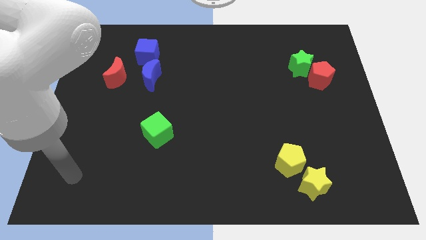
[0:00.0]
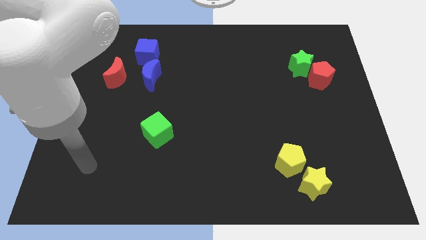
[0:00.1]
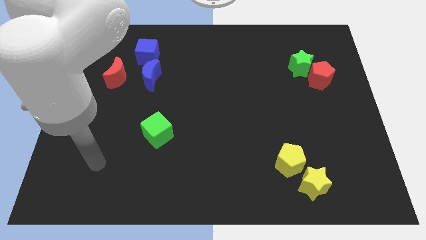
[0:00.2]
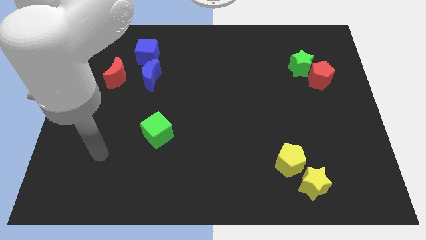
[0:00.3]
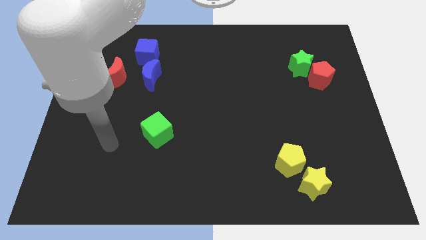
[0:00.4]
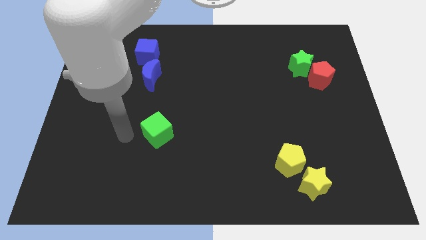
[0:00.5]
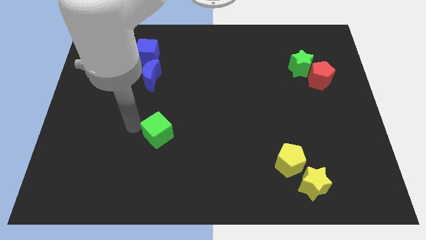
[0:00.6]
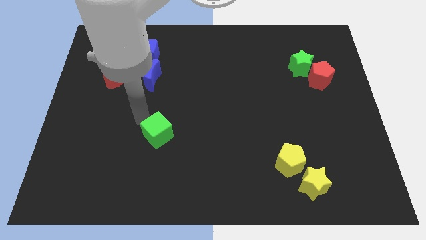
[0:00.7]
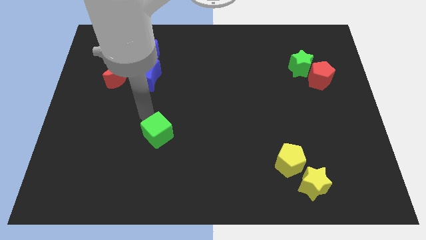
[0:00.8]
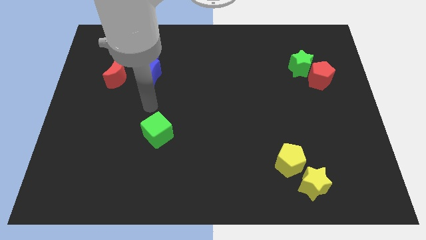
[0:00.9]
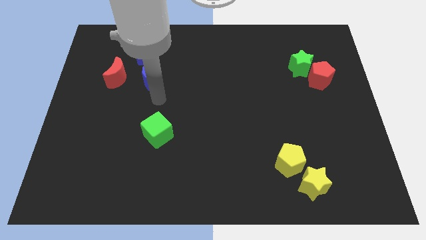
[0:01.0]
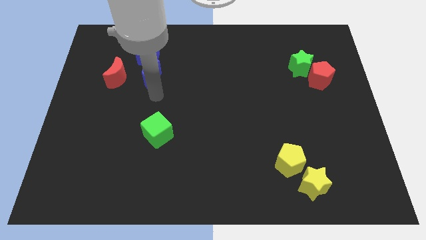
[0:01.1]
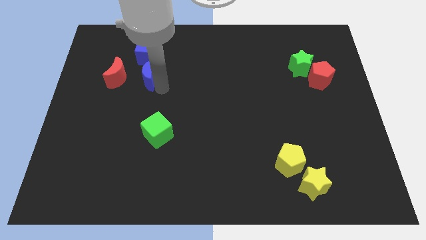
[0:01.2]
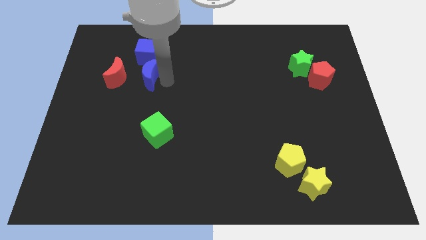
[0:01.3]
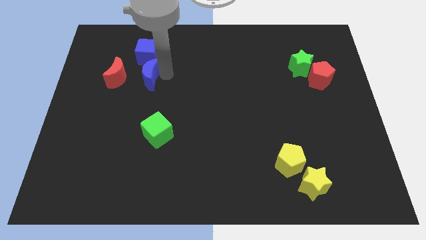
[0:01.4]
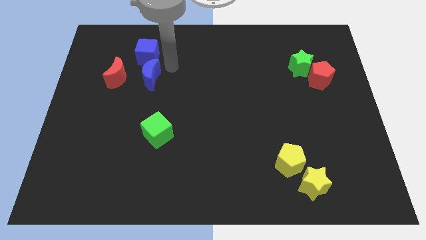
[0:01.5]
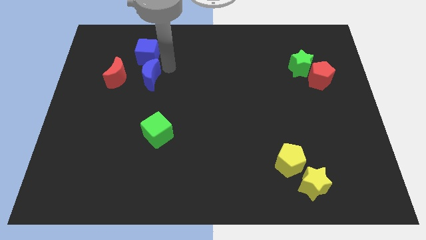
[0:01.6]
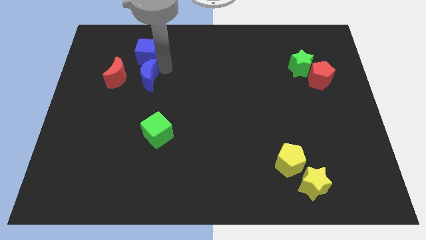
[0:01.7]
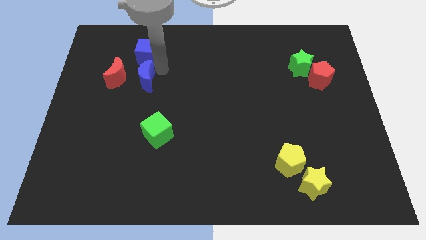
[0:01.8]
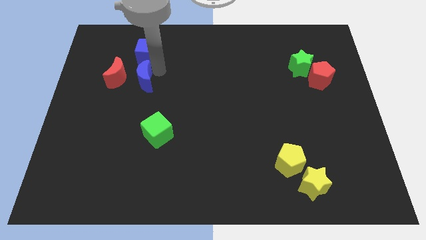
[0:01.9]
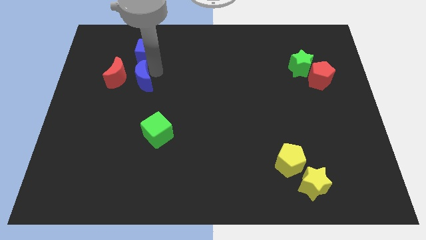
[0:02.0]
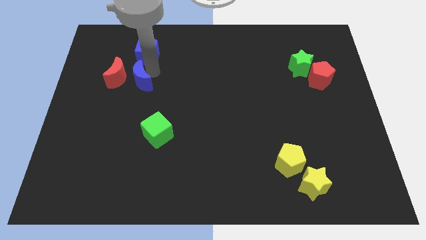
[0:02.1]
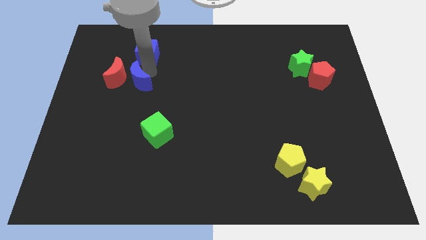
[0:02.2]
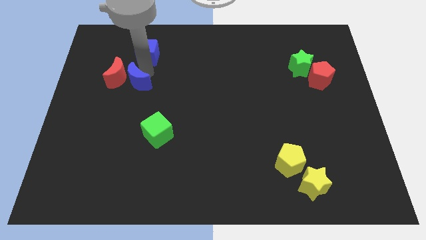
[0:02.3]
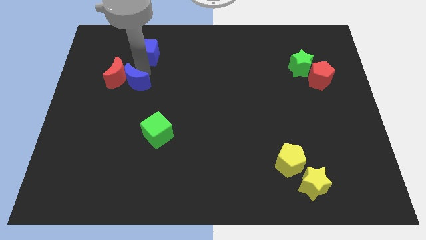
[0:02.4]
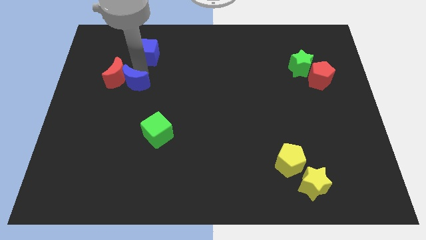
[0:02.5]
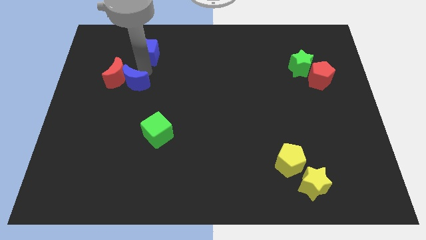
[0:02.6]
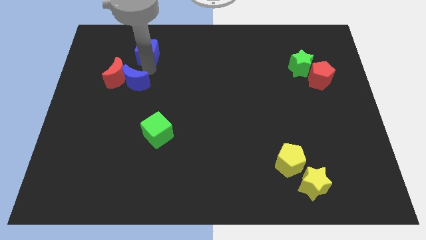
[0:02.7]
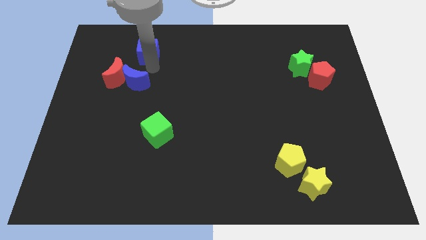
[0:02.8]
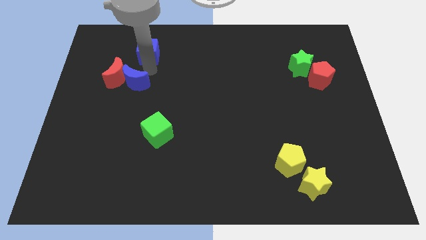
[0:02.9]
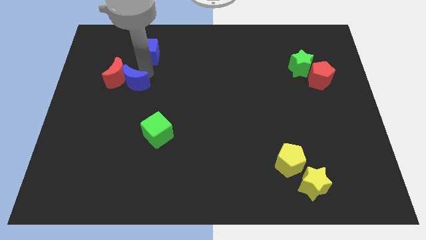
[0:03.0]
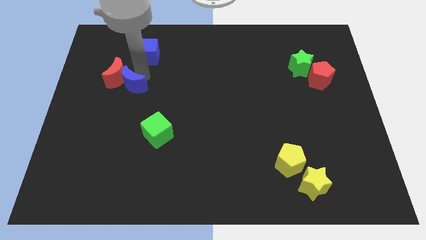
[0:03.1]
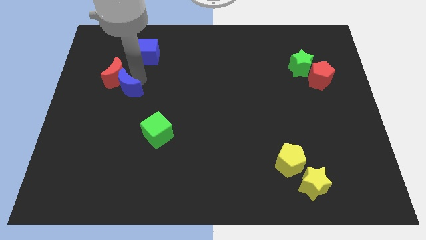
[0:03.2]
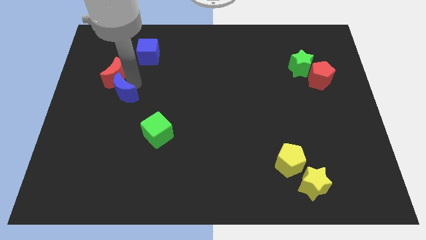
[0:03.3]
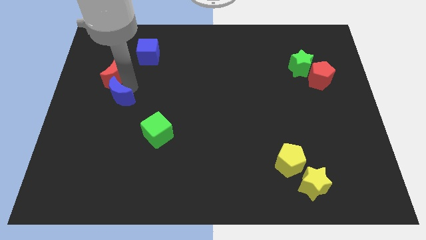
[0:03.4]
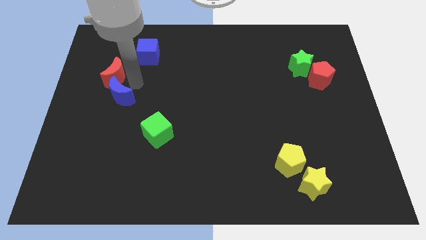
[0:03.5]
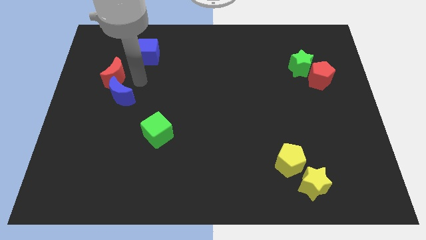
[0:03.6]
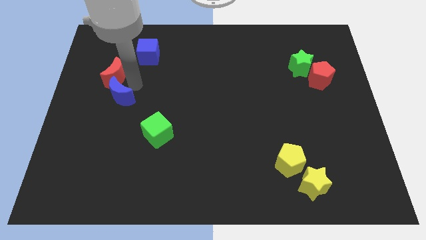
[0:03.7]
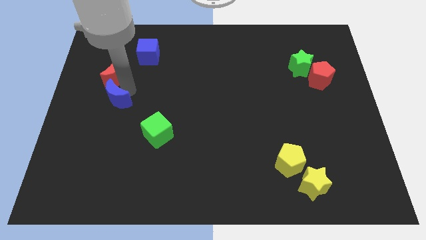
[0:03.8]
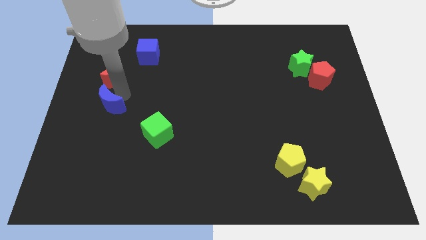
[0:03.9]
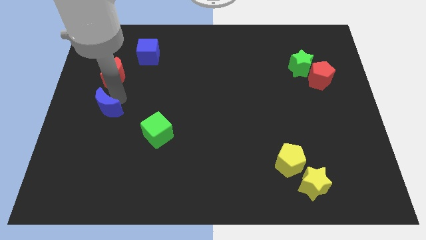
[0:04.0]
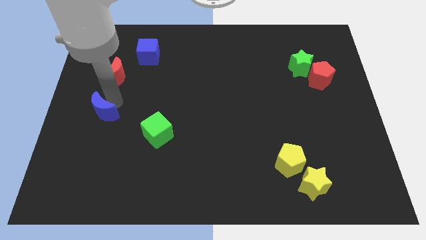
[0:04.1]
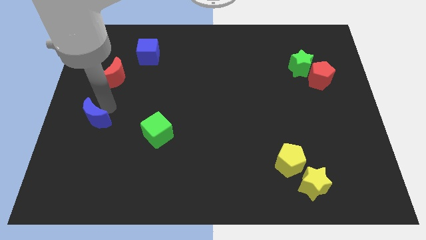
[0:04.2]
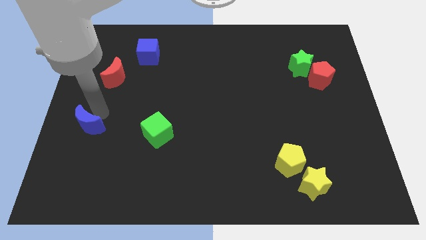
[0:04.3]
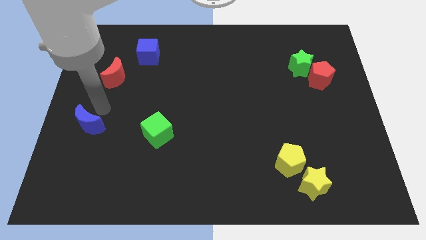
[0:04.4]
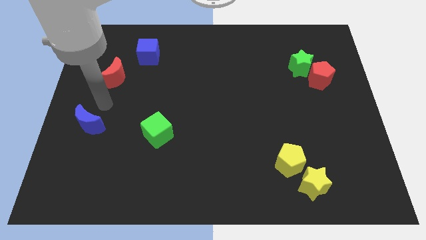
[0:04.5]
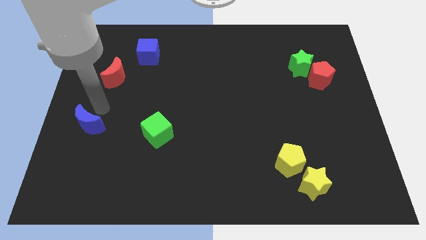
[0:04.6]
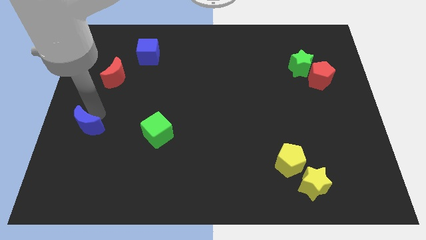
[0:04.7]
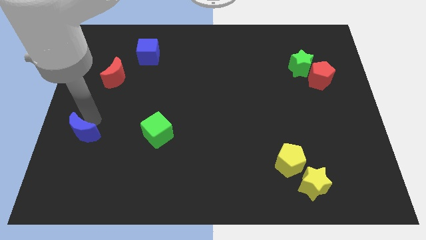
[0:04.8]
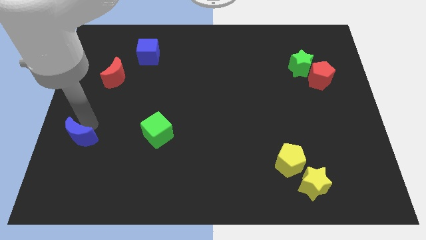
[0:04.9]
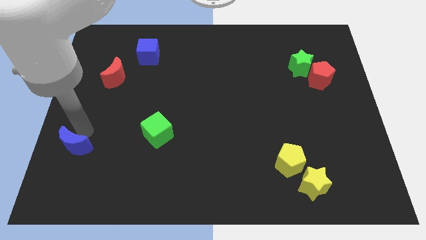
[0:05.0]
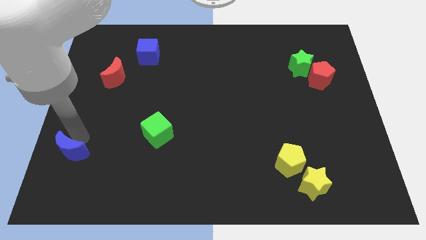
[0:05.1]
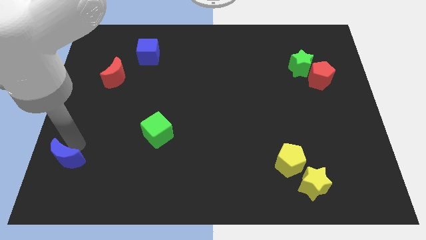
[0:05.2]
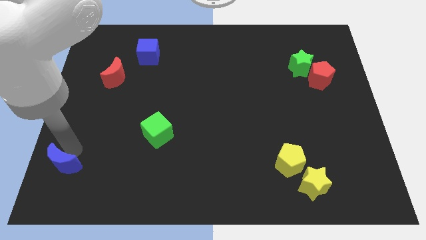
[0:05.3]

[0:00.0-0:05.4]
put the blue moon to the bottom left of the board

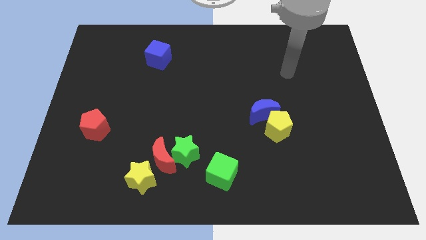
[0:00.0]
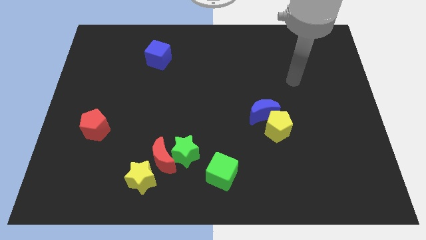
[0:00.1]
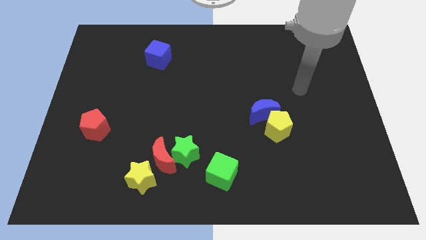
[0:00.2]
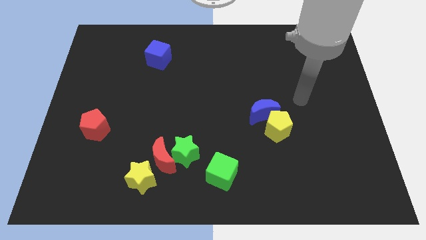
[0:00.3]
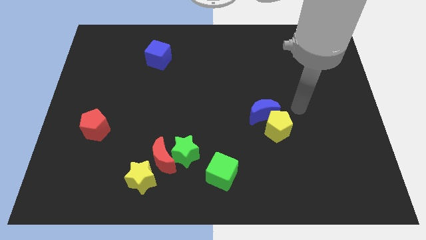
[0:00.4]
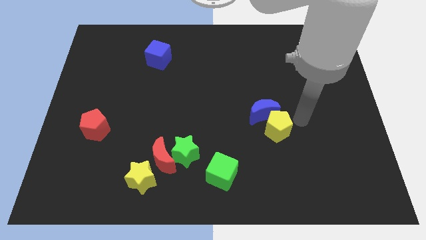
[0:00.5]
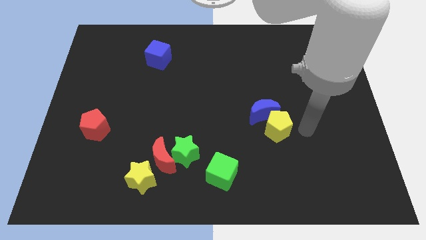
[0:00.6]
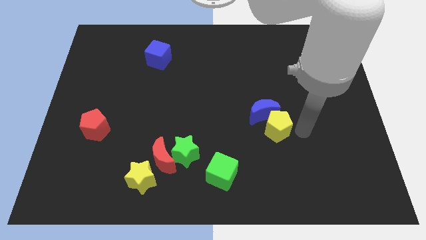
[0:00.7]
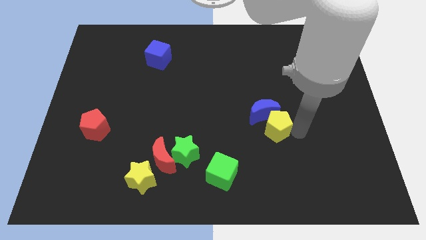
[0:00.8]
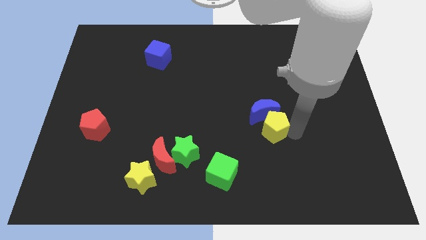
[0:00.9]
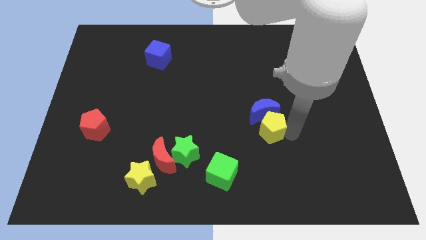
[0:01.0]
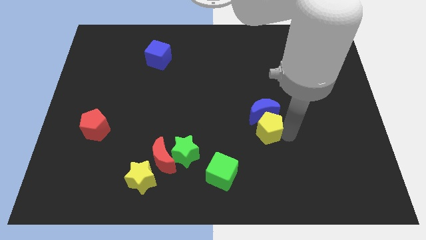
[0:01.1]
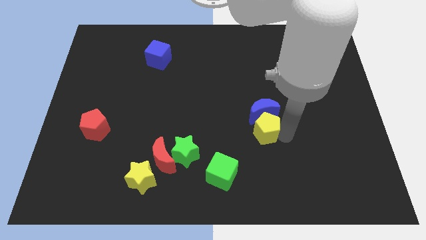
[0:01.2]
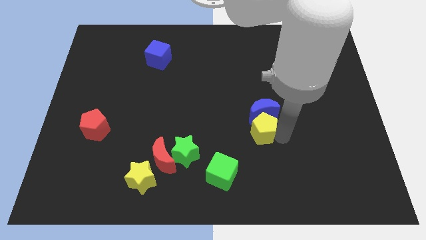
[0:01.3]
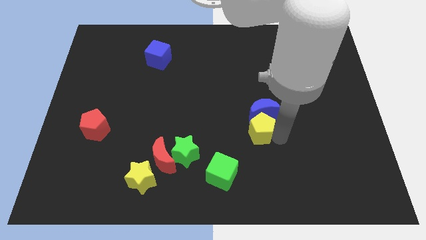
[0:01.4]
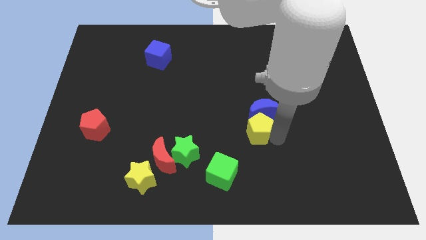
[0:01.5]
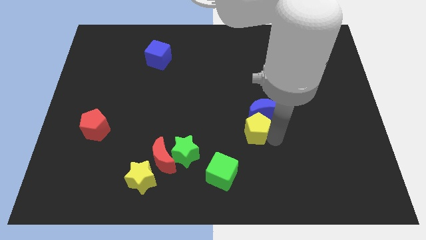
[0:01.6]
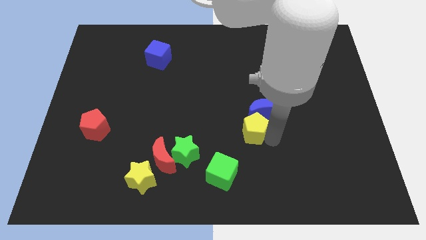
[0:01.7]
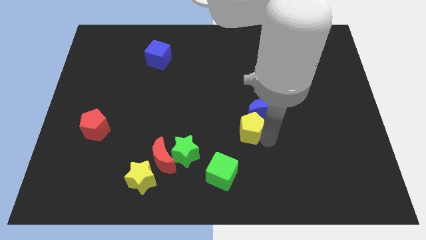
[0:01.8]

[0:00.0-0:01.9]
put the yellow pentagon to the center

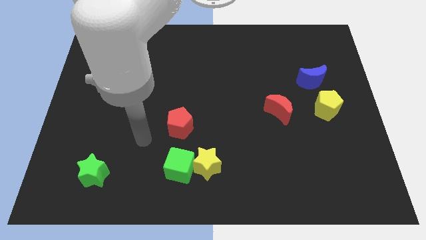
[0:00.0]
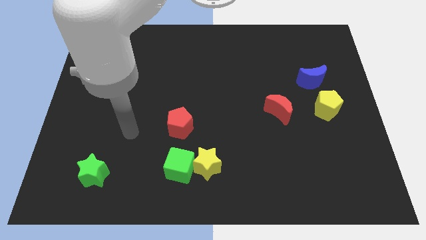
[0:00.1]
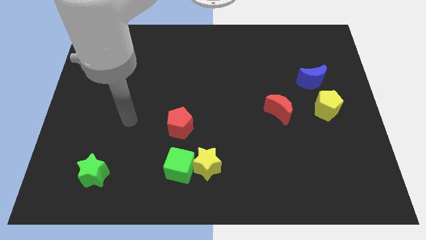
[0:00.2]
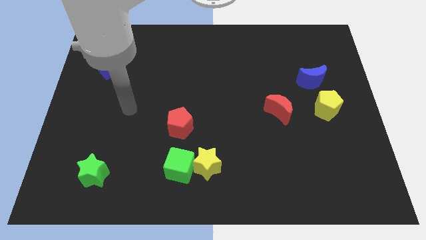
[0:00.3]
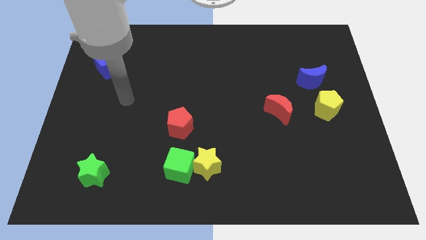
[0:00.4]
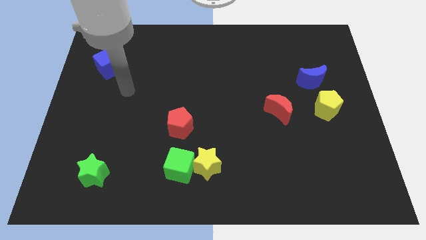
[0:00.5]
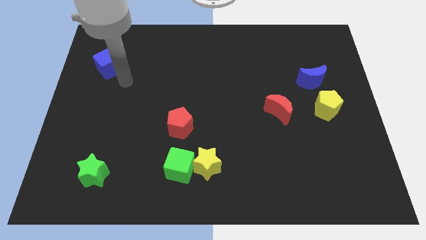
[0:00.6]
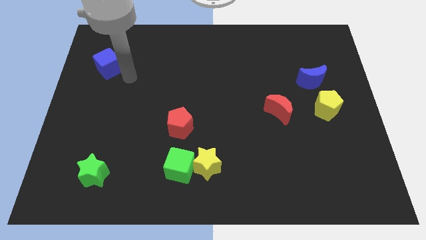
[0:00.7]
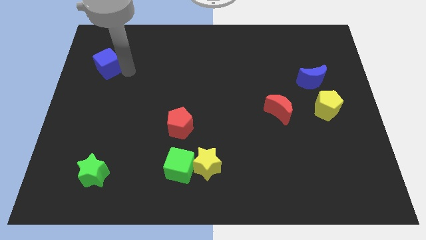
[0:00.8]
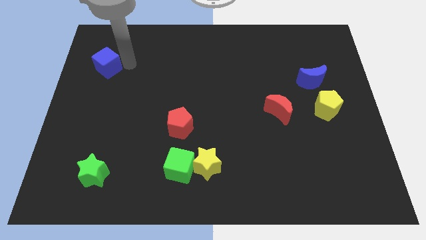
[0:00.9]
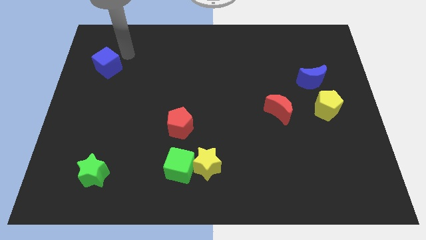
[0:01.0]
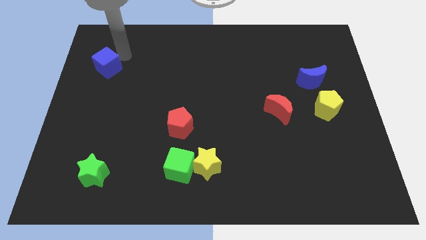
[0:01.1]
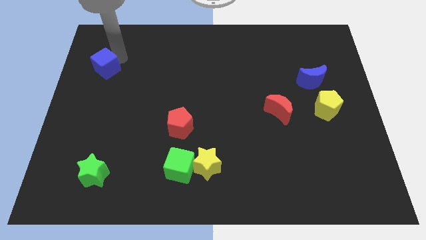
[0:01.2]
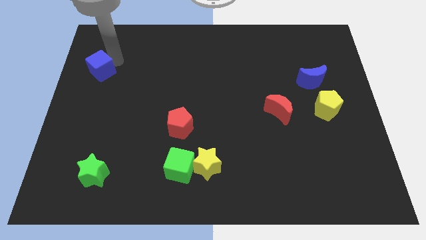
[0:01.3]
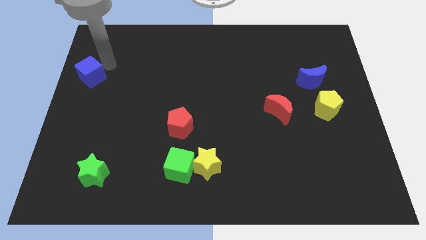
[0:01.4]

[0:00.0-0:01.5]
put the blue cube to the left side of the board
